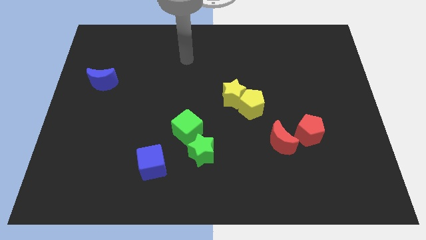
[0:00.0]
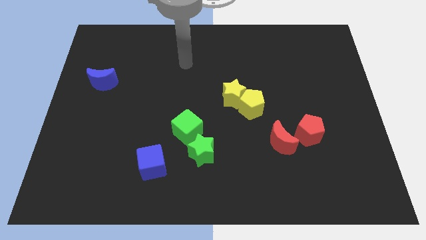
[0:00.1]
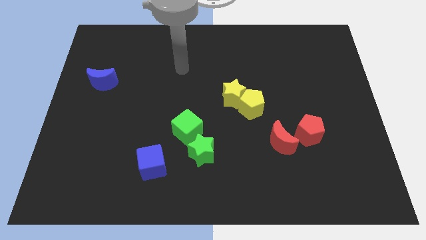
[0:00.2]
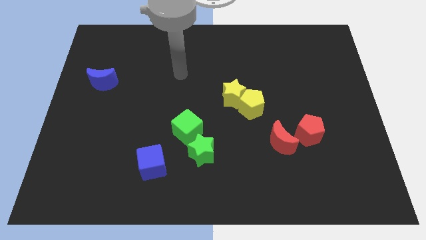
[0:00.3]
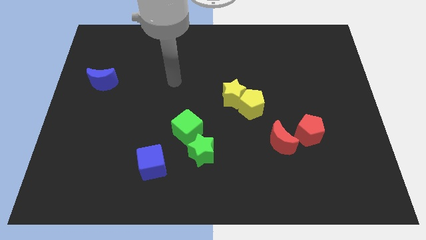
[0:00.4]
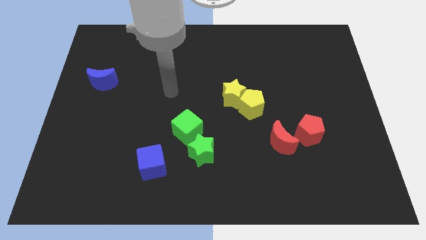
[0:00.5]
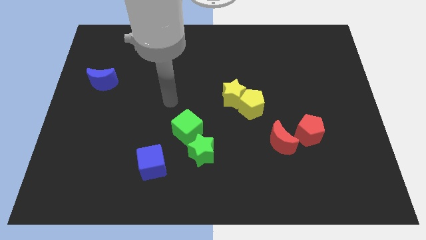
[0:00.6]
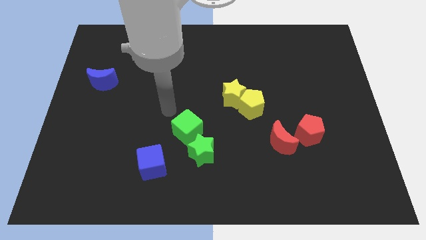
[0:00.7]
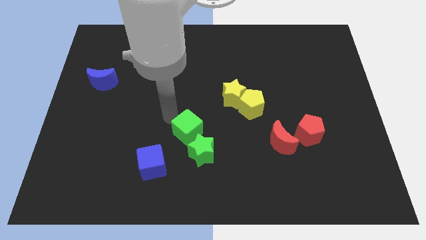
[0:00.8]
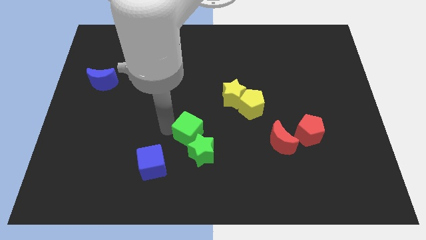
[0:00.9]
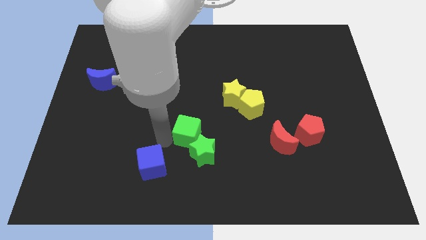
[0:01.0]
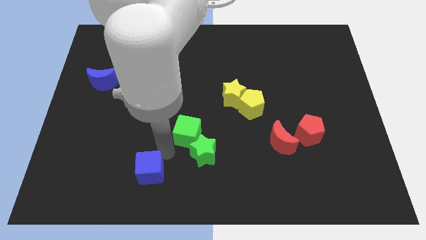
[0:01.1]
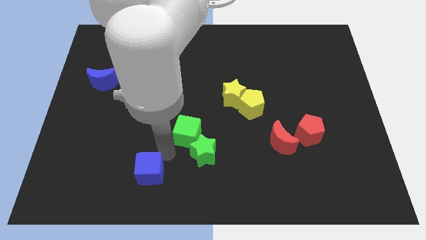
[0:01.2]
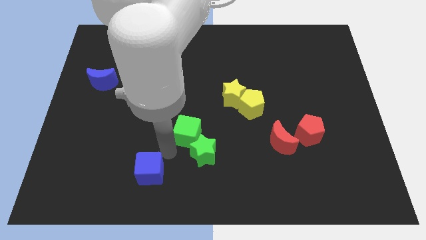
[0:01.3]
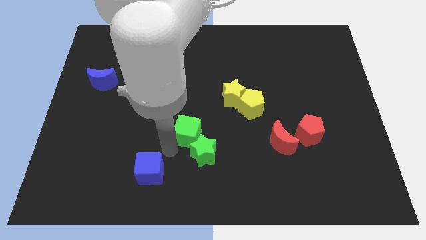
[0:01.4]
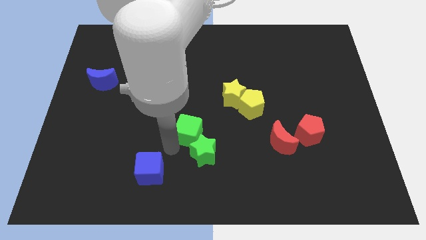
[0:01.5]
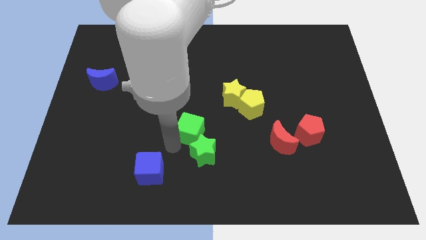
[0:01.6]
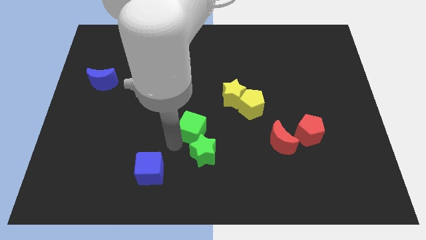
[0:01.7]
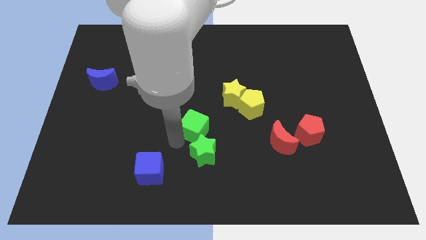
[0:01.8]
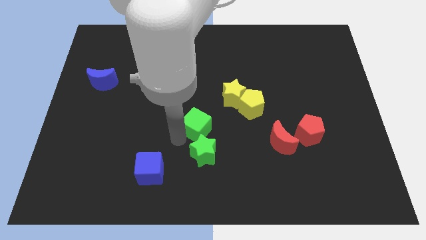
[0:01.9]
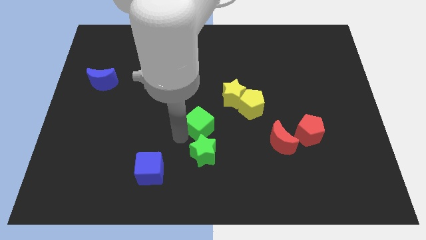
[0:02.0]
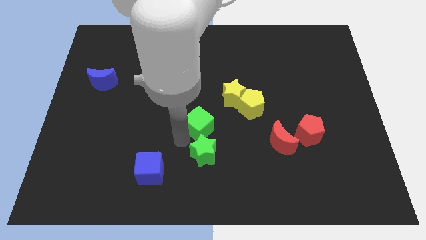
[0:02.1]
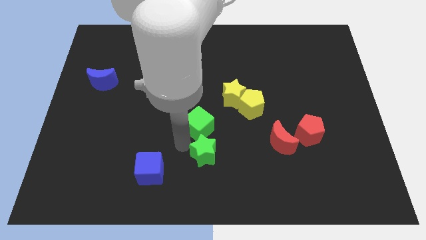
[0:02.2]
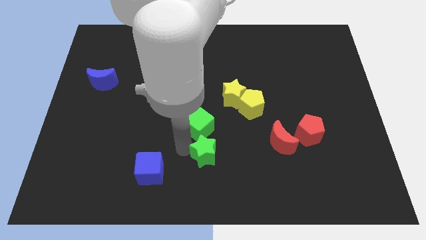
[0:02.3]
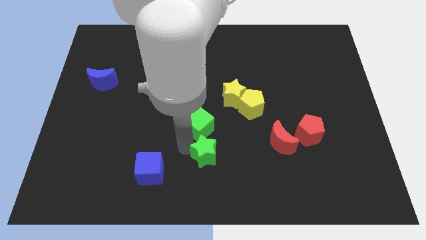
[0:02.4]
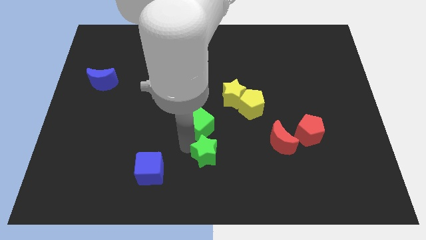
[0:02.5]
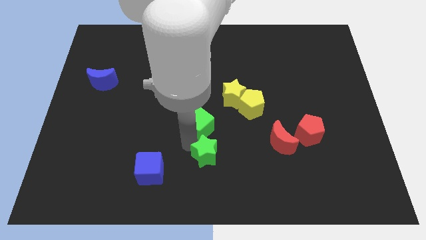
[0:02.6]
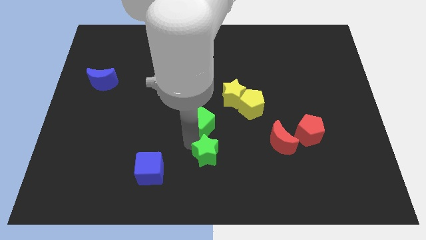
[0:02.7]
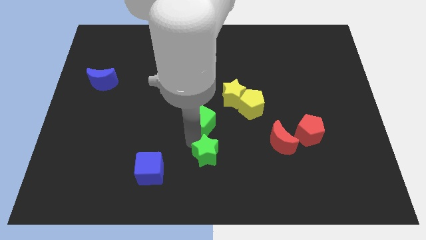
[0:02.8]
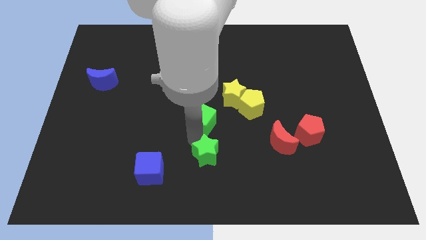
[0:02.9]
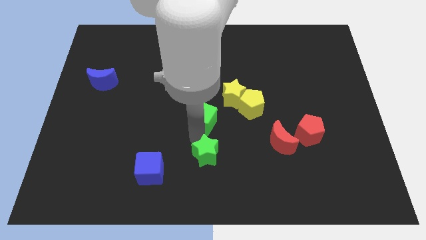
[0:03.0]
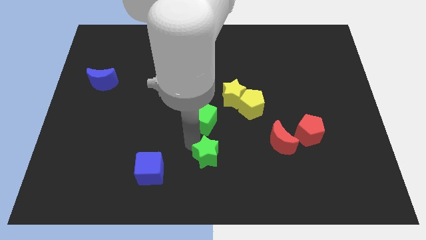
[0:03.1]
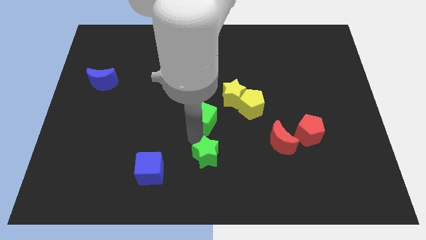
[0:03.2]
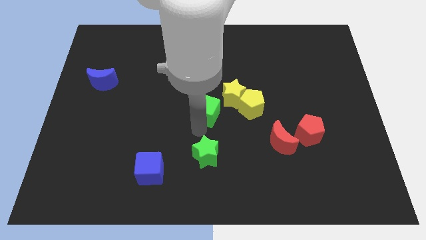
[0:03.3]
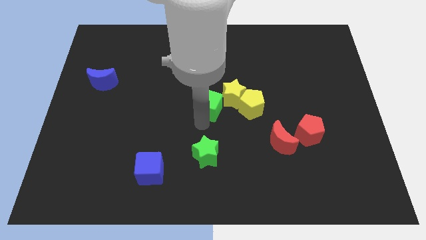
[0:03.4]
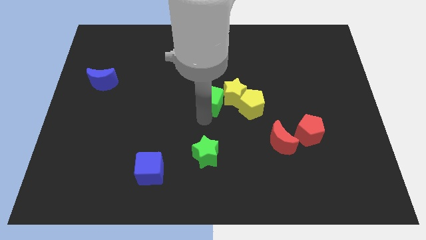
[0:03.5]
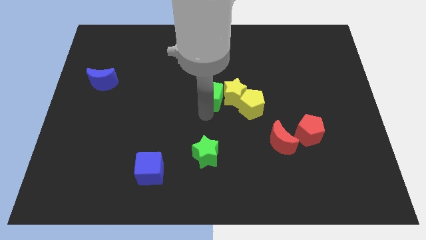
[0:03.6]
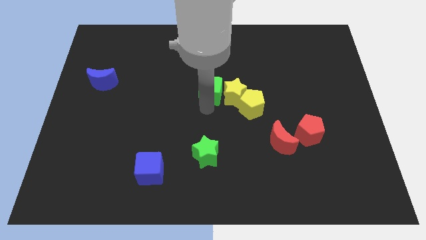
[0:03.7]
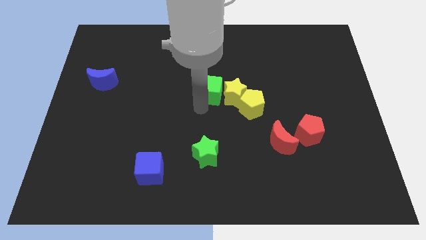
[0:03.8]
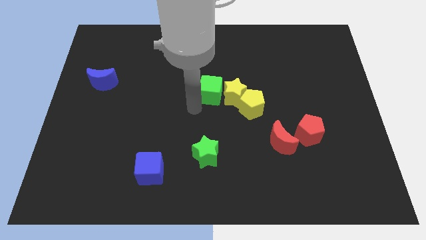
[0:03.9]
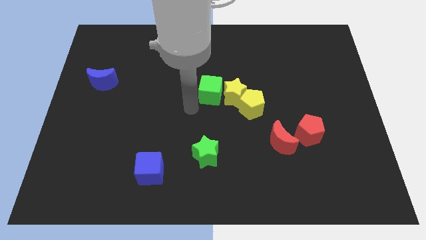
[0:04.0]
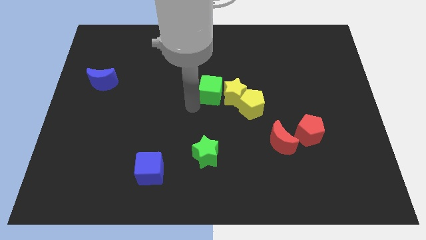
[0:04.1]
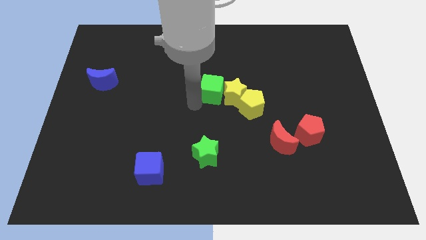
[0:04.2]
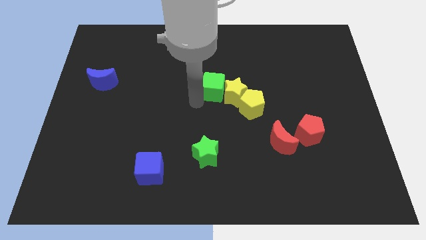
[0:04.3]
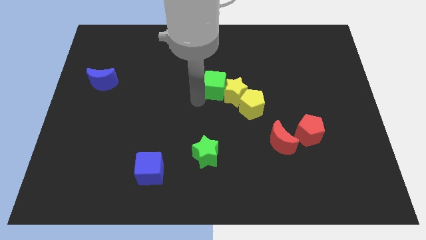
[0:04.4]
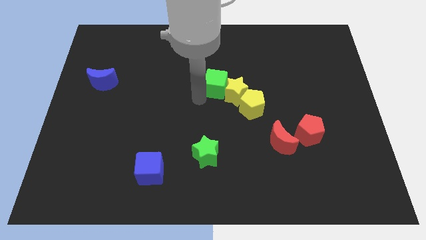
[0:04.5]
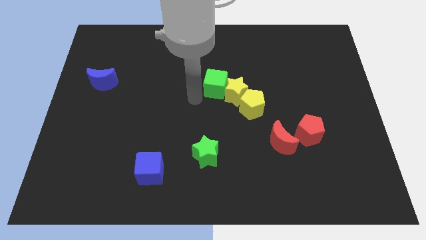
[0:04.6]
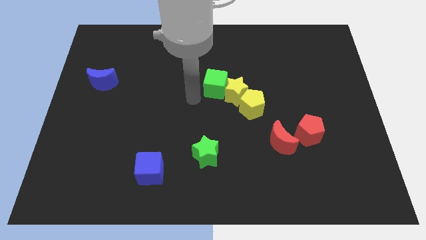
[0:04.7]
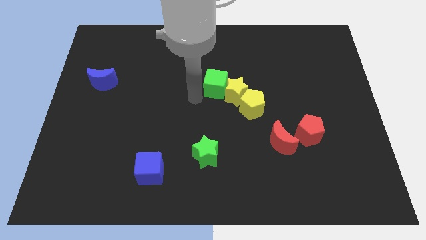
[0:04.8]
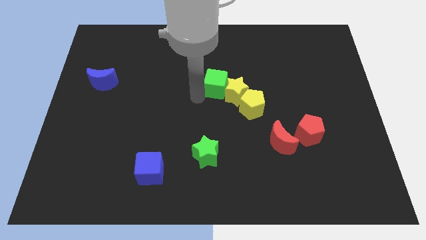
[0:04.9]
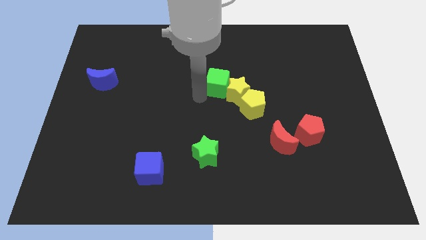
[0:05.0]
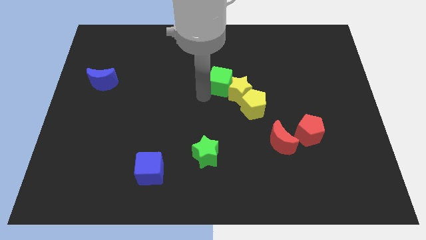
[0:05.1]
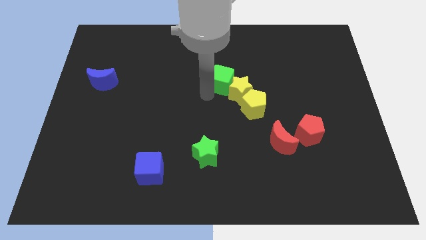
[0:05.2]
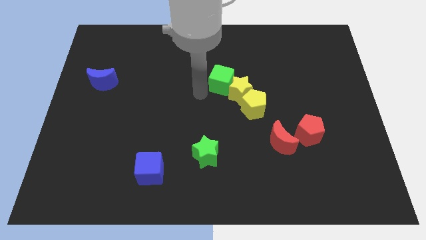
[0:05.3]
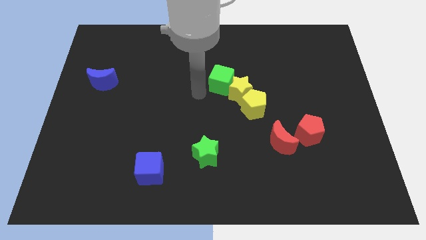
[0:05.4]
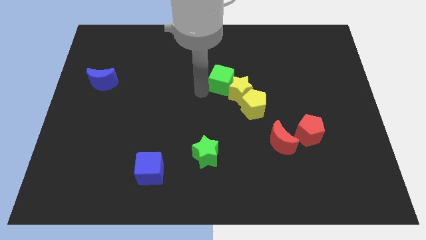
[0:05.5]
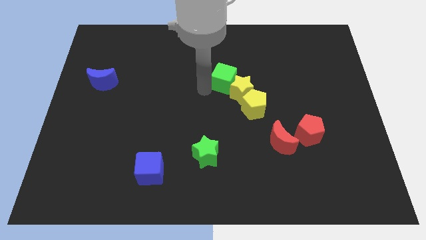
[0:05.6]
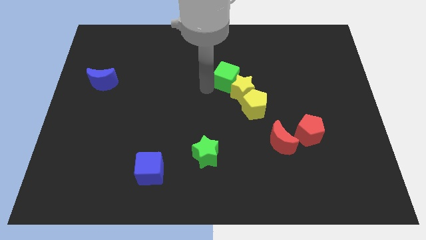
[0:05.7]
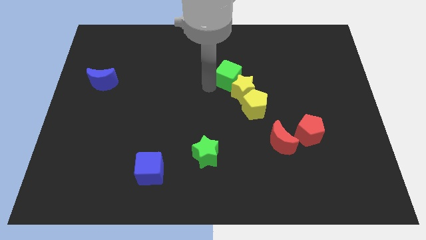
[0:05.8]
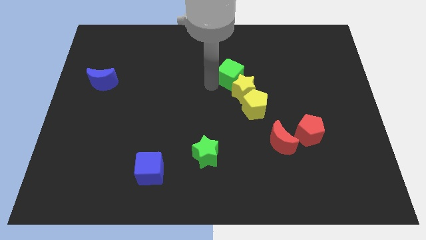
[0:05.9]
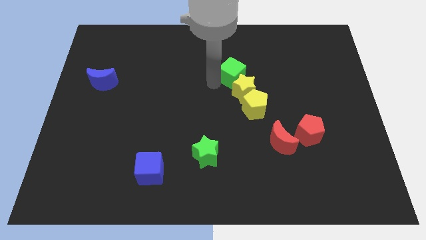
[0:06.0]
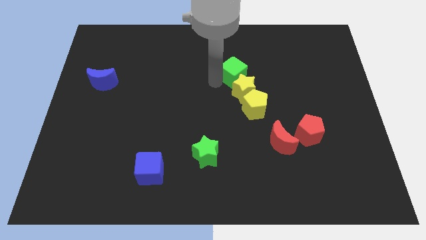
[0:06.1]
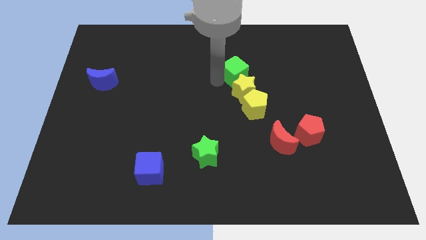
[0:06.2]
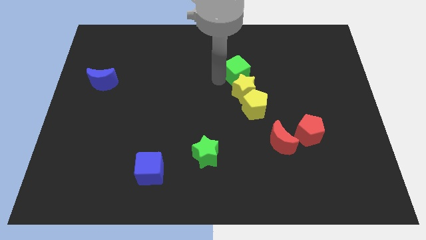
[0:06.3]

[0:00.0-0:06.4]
move the green cube up and right diagonally

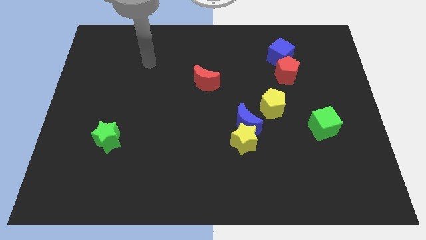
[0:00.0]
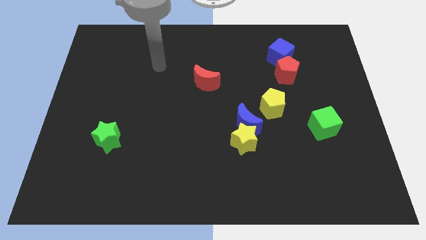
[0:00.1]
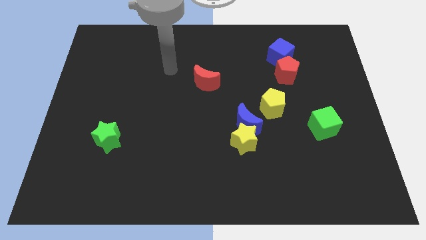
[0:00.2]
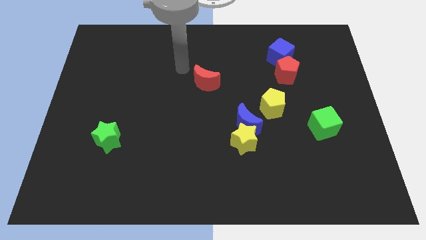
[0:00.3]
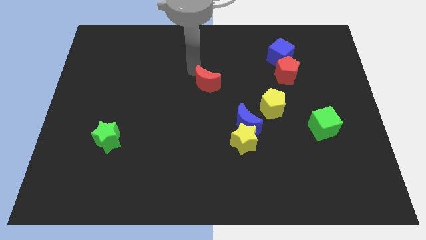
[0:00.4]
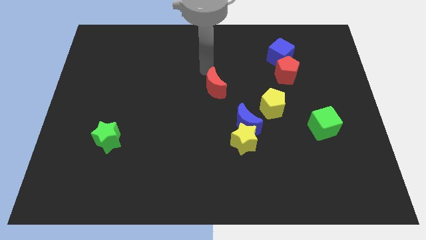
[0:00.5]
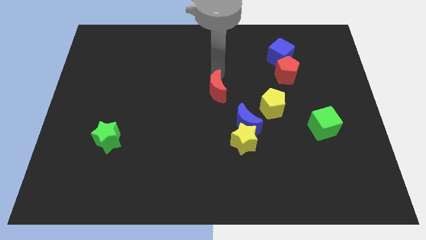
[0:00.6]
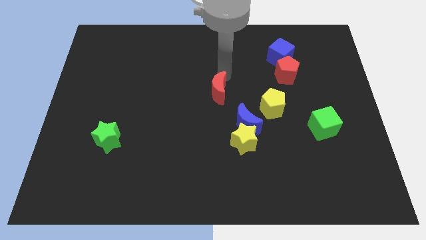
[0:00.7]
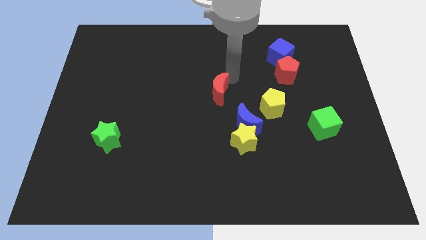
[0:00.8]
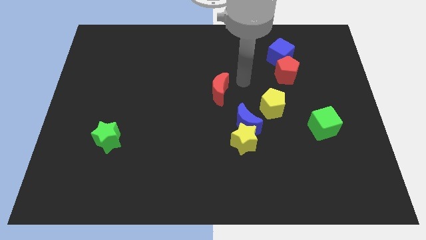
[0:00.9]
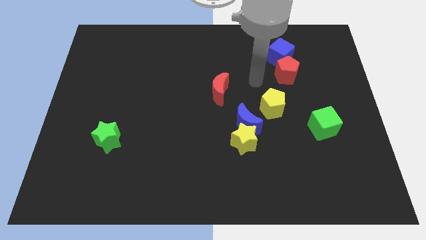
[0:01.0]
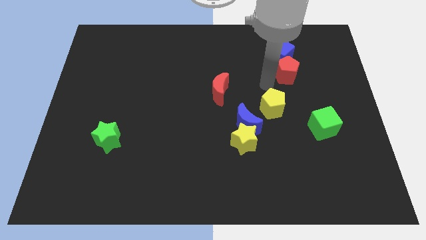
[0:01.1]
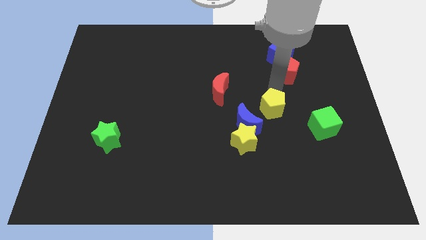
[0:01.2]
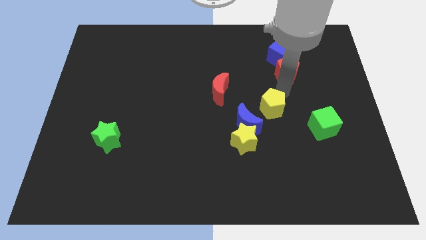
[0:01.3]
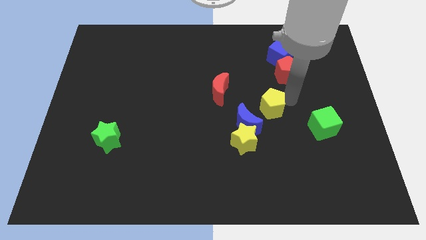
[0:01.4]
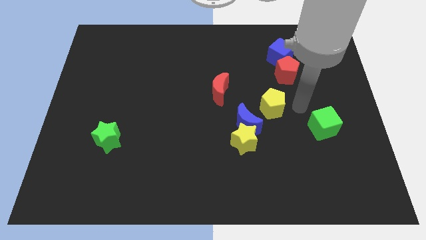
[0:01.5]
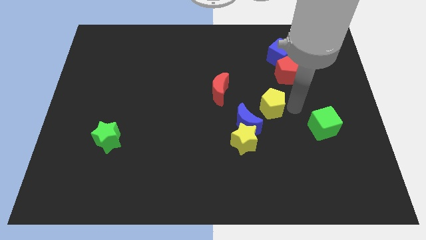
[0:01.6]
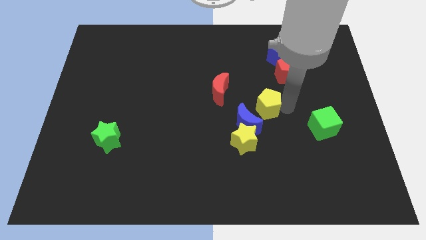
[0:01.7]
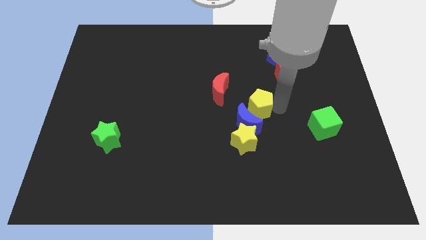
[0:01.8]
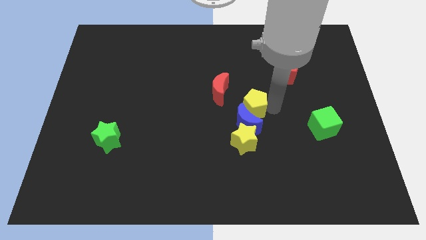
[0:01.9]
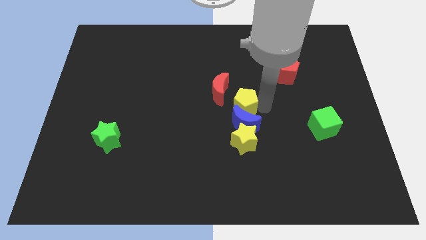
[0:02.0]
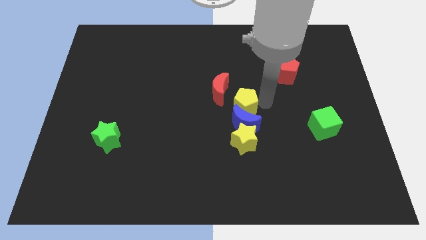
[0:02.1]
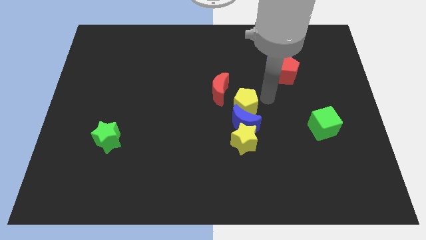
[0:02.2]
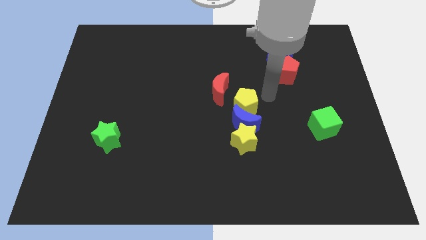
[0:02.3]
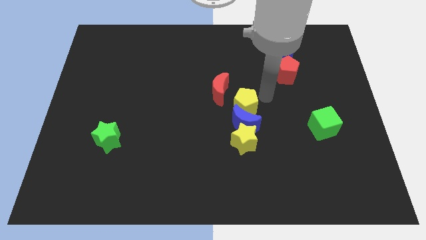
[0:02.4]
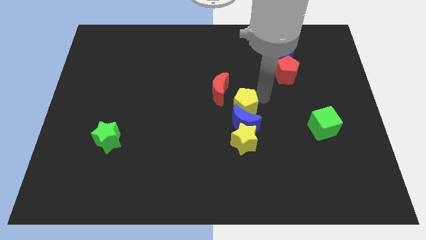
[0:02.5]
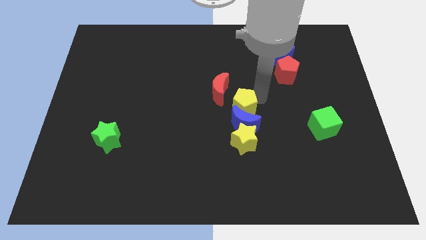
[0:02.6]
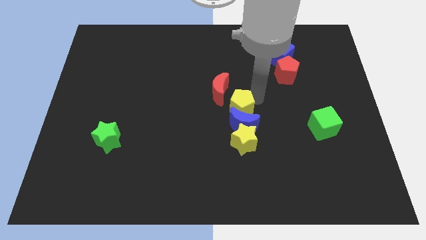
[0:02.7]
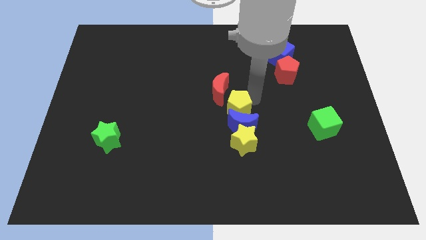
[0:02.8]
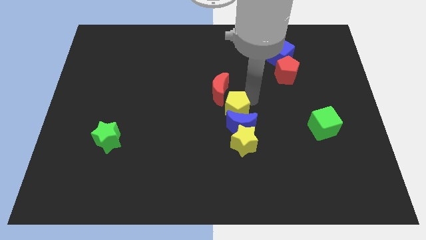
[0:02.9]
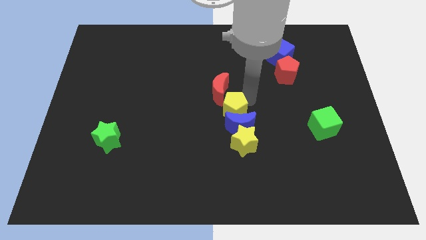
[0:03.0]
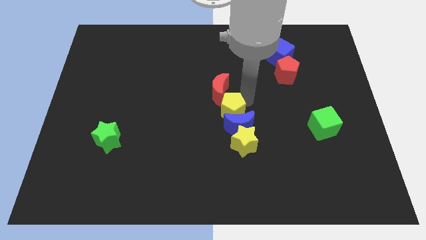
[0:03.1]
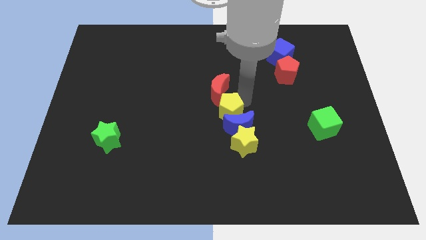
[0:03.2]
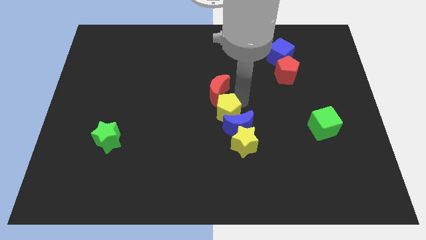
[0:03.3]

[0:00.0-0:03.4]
slide the yellow pentagon a little bit downwards and then left
